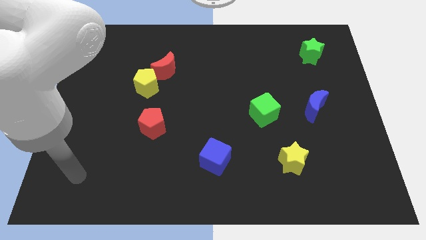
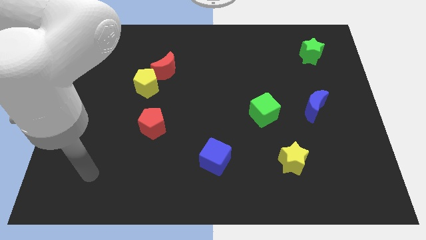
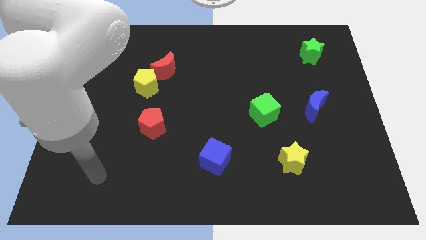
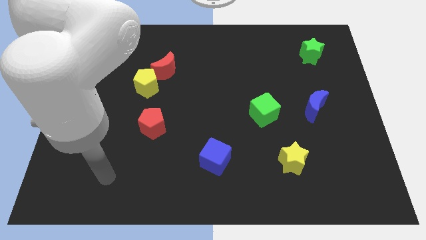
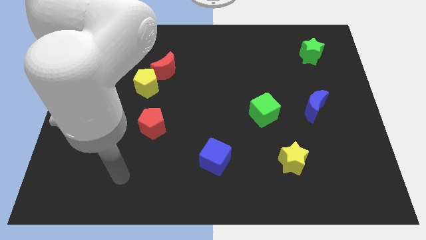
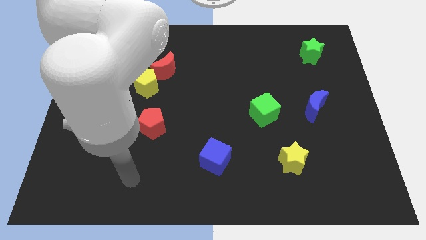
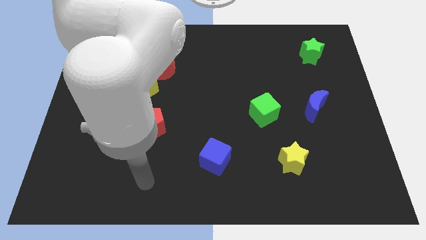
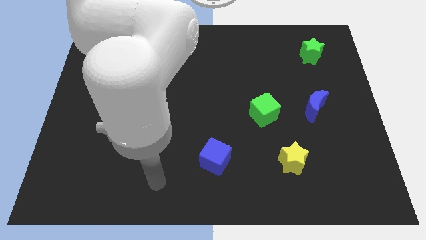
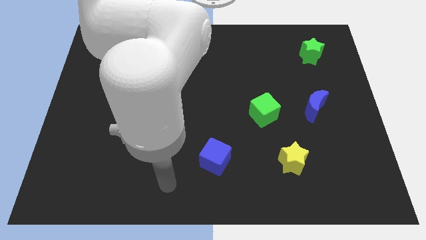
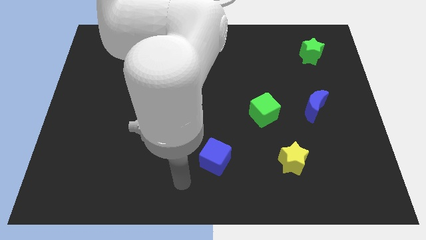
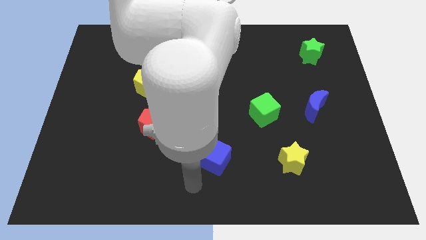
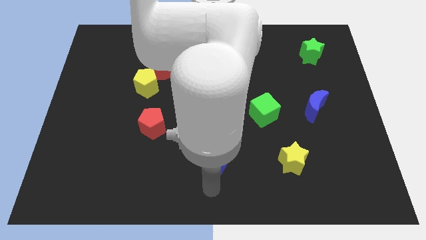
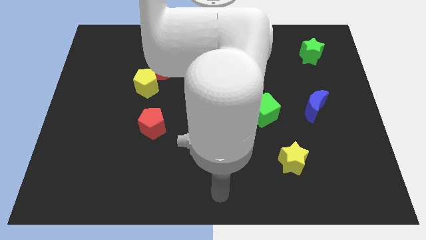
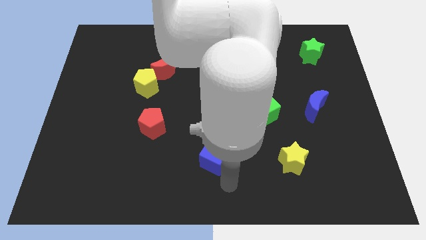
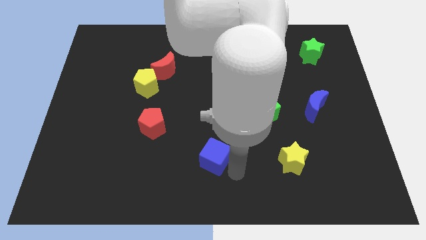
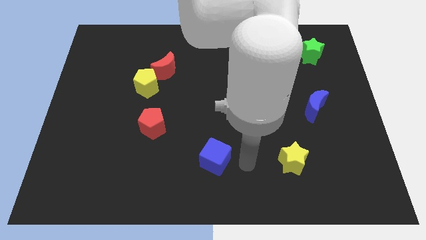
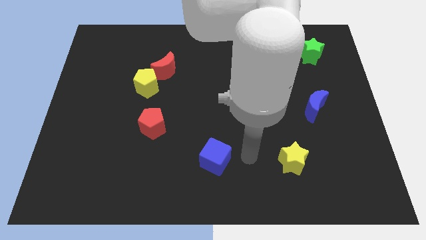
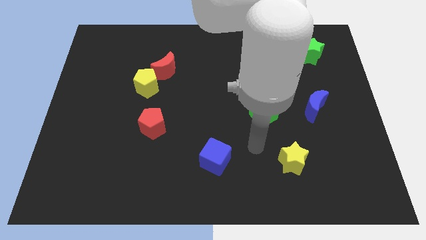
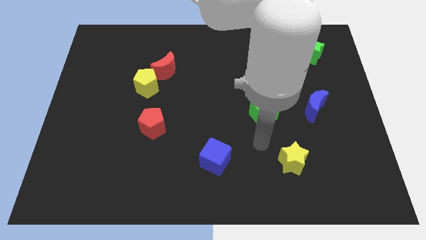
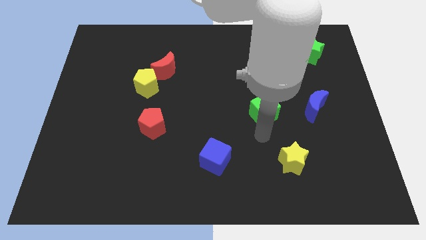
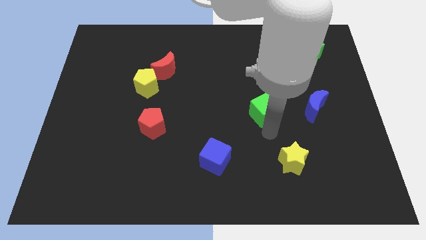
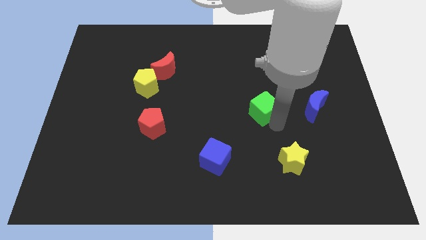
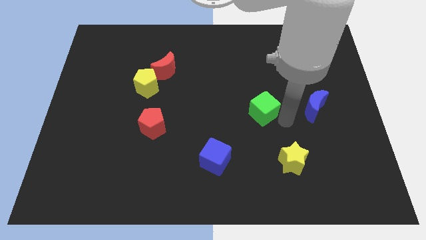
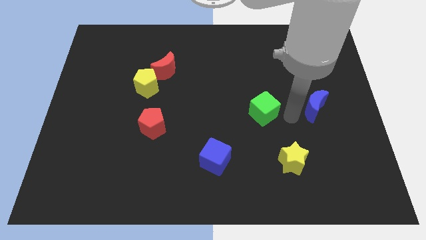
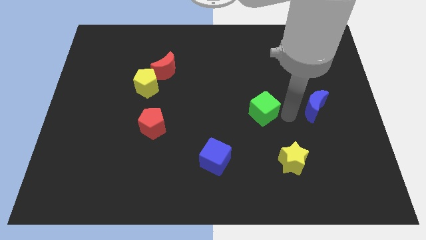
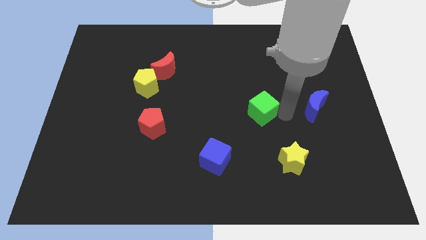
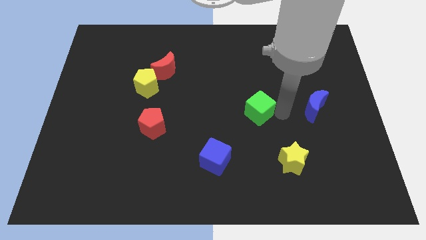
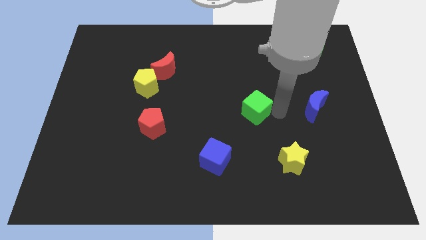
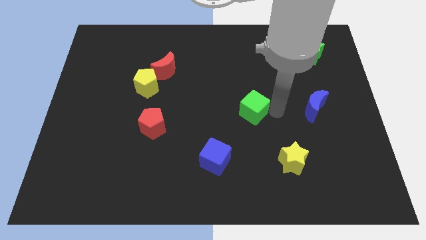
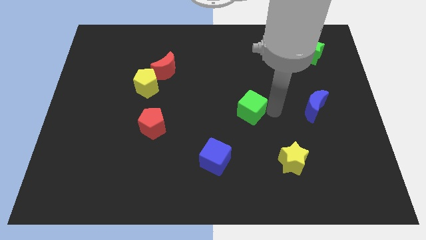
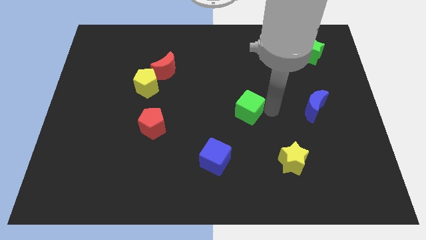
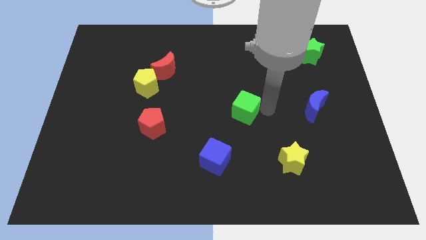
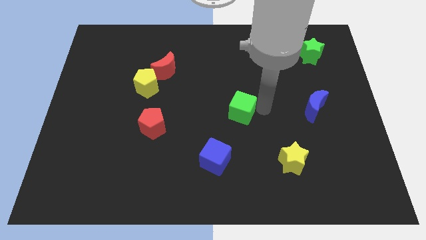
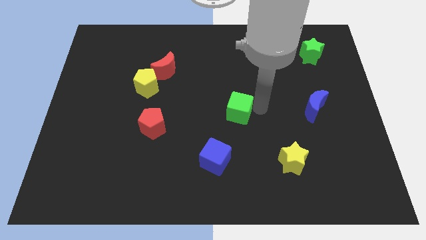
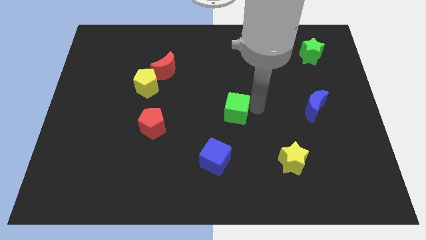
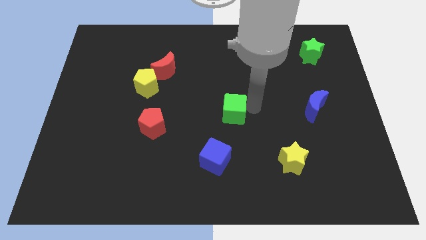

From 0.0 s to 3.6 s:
slightly push the green cube to the left

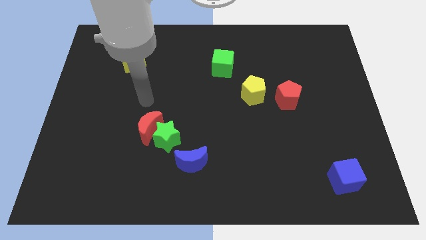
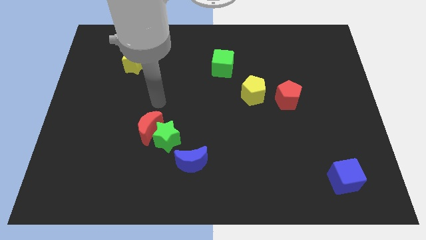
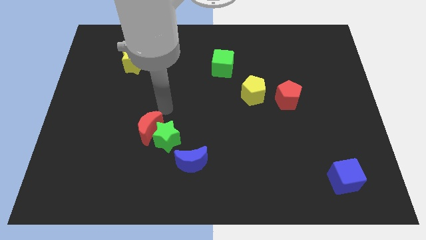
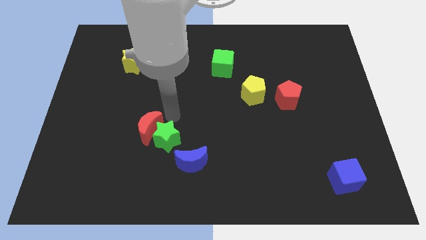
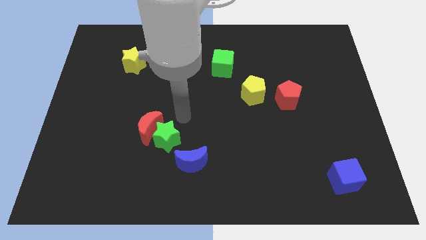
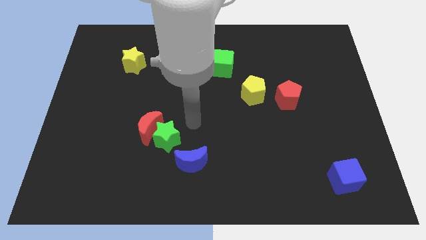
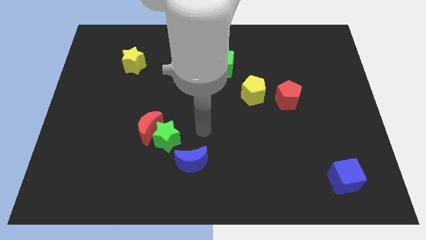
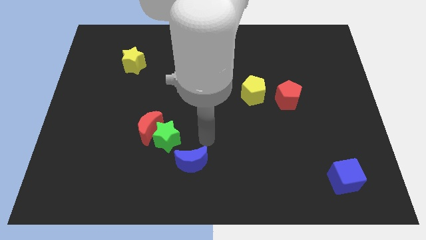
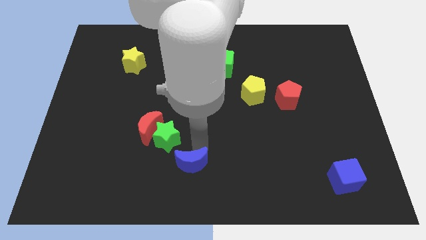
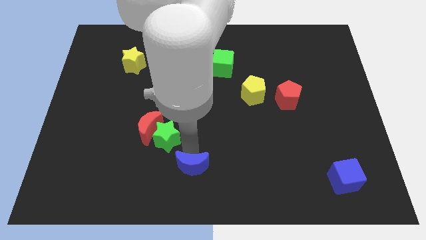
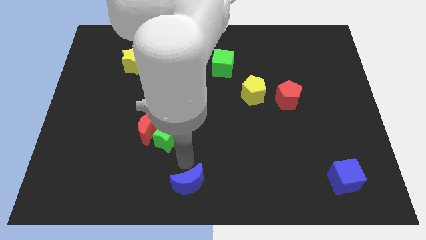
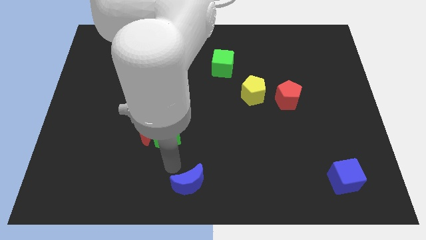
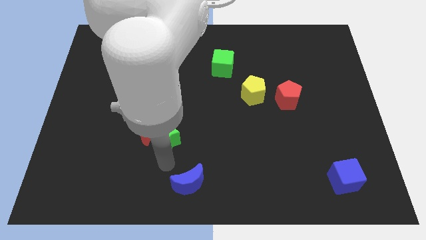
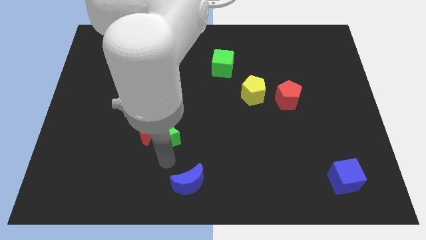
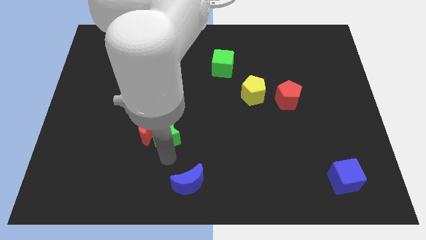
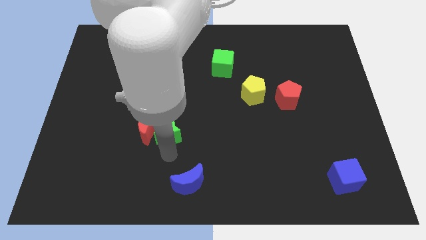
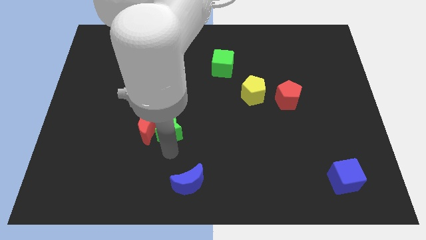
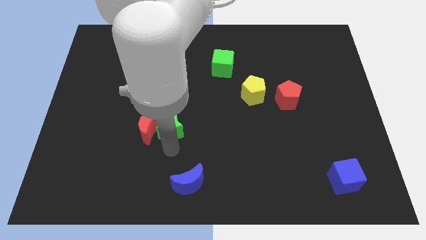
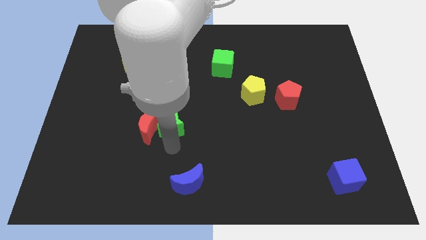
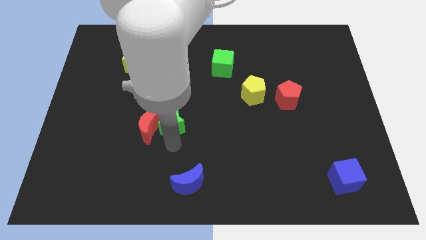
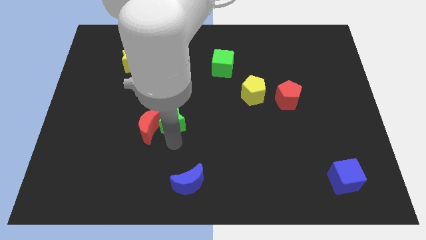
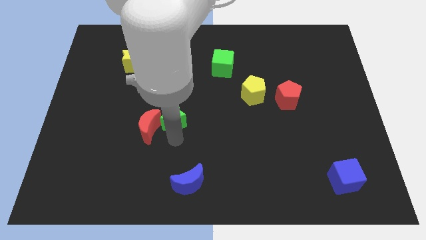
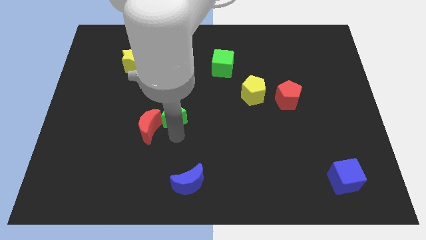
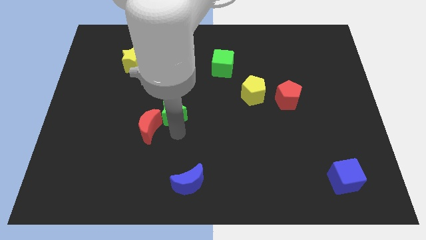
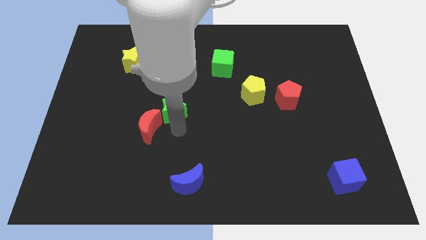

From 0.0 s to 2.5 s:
slide the green star a little bit up

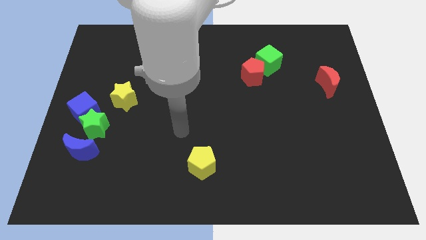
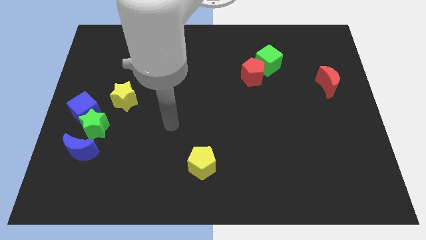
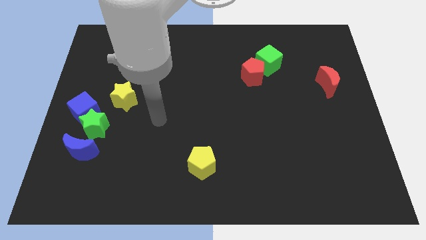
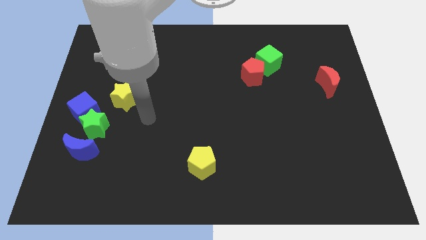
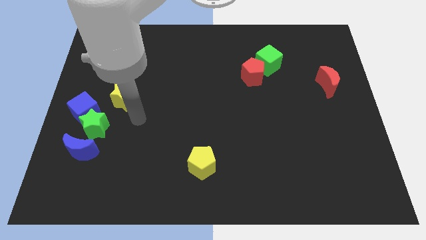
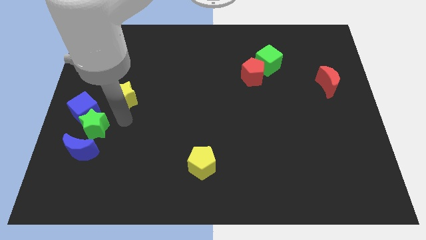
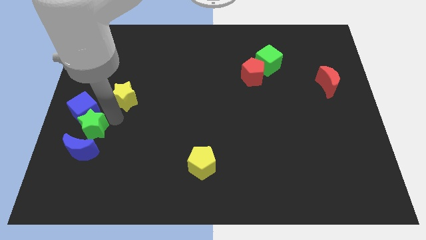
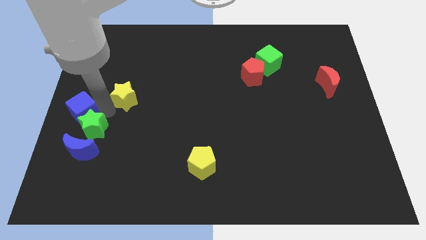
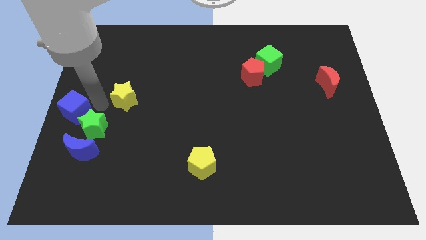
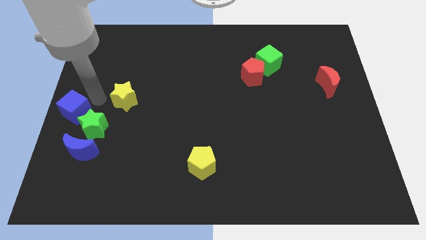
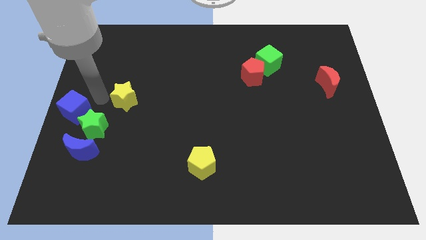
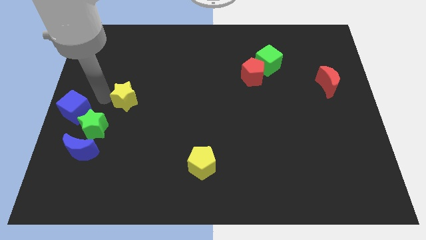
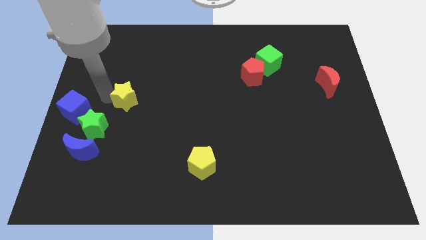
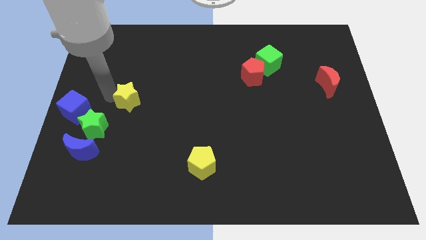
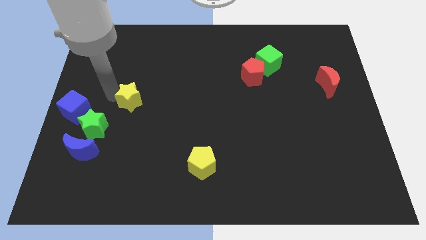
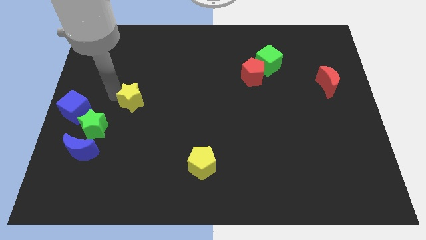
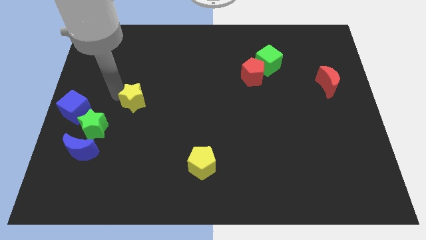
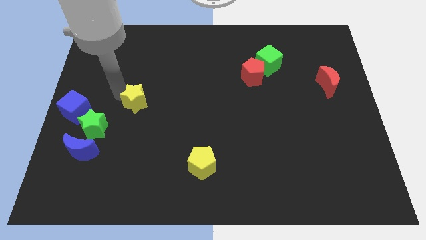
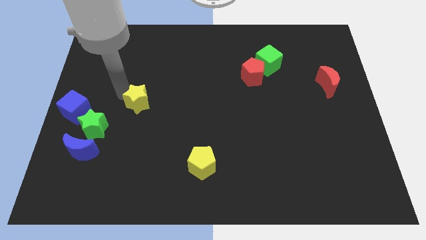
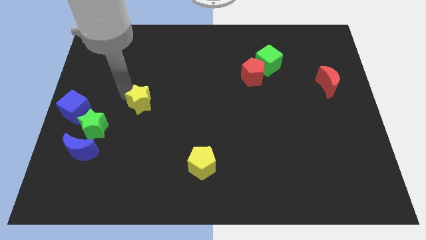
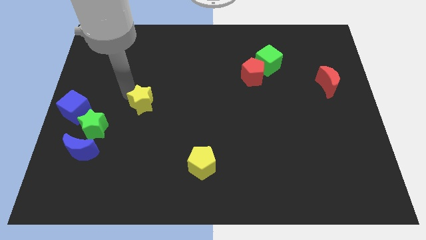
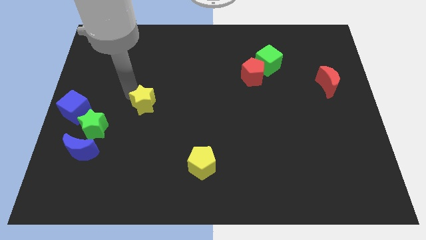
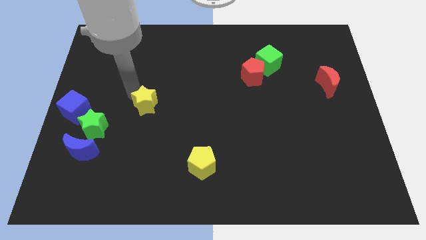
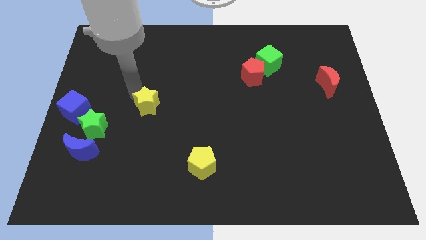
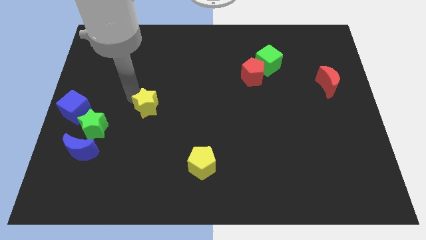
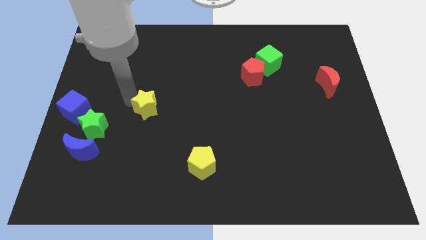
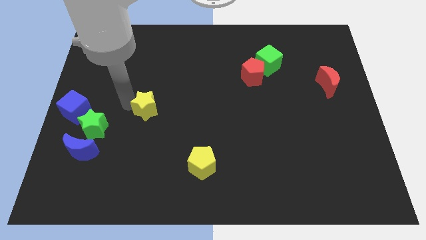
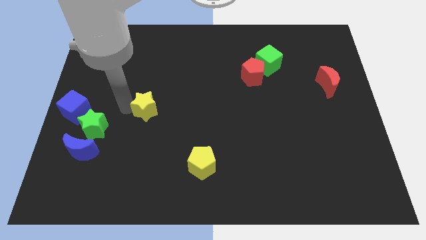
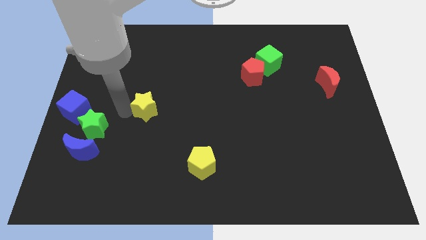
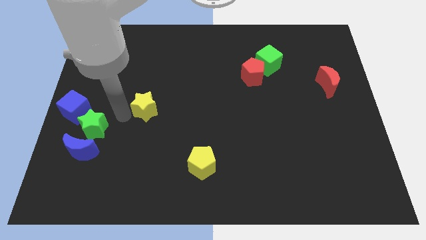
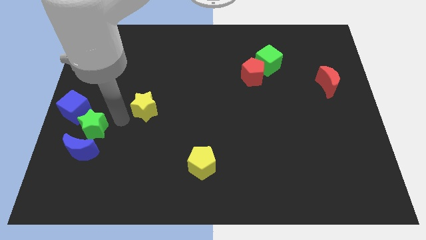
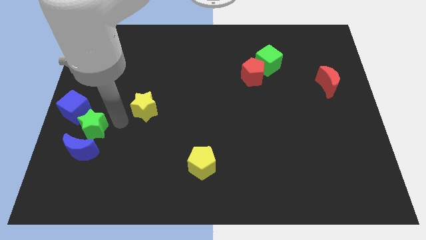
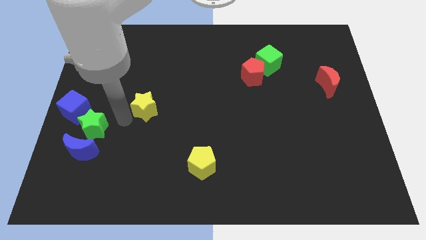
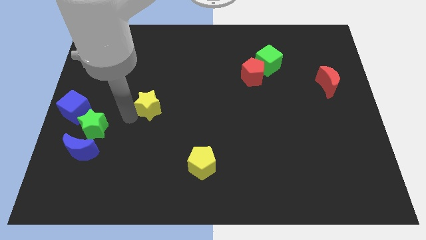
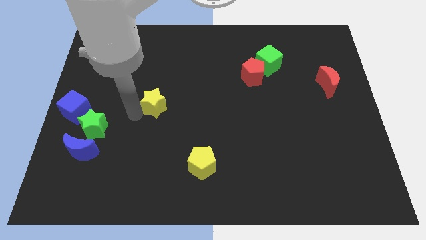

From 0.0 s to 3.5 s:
push the yellow star slightly to the right
